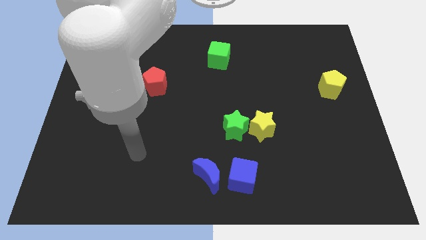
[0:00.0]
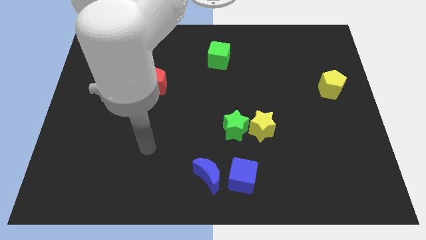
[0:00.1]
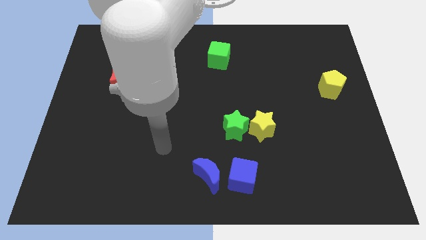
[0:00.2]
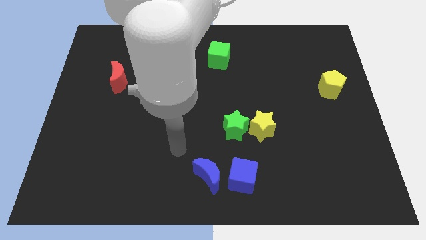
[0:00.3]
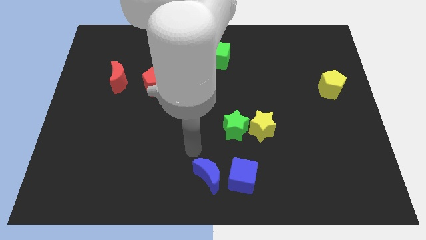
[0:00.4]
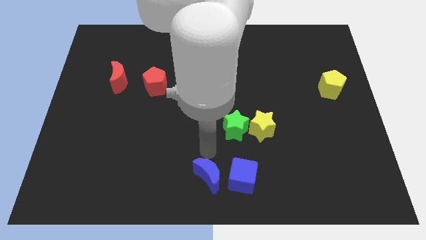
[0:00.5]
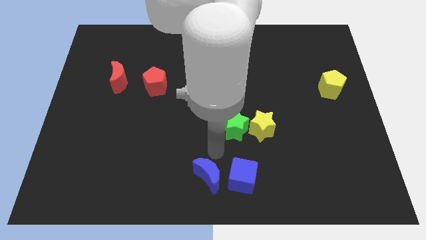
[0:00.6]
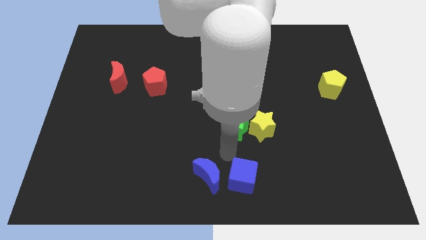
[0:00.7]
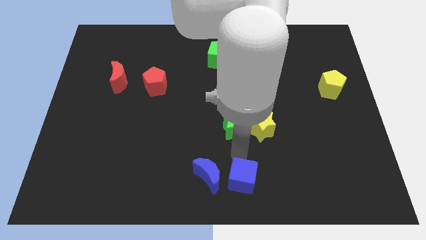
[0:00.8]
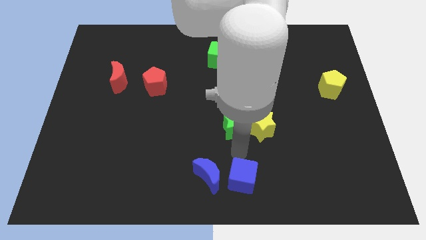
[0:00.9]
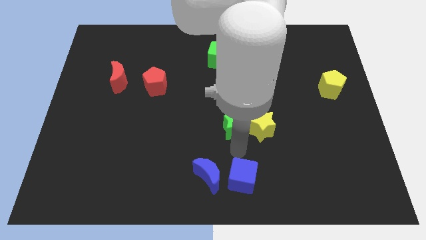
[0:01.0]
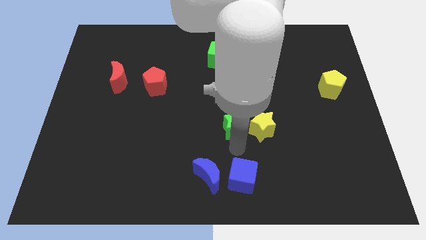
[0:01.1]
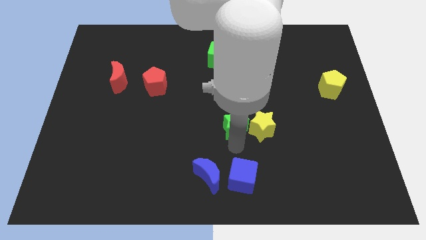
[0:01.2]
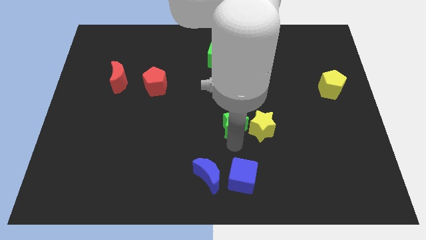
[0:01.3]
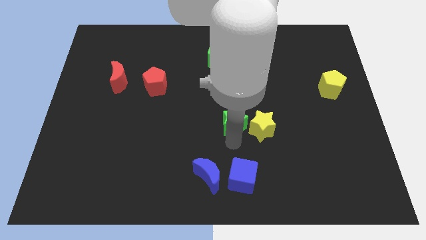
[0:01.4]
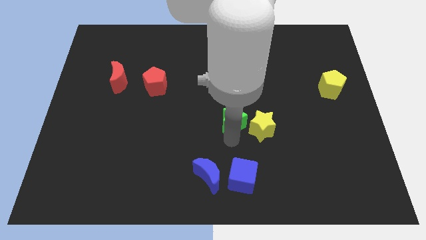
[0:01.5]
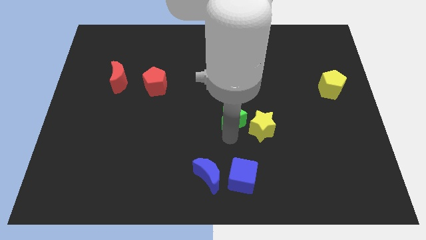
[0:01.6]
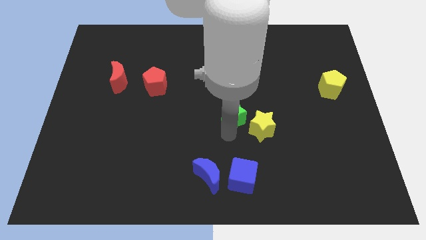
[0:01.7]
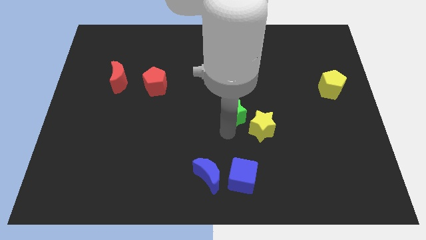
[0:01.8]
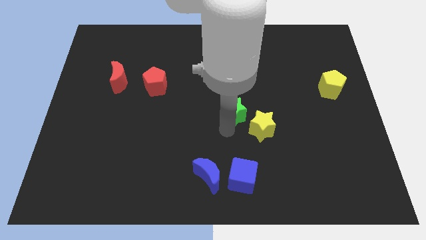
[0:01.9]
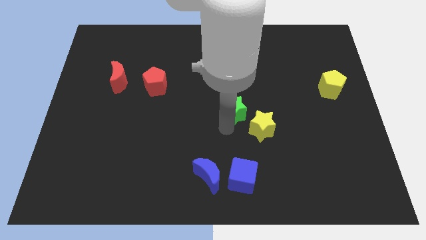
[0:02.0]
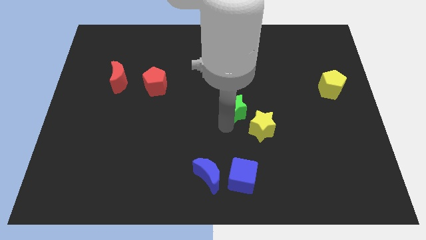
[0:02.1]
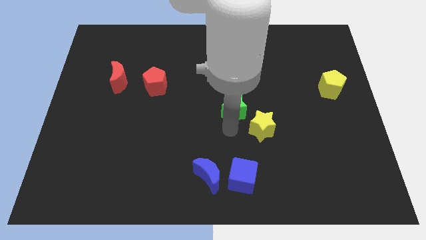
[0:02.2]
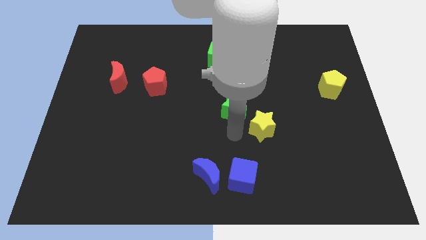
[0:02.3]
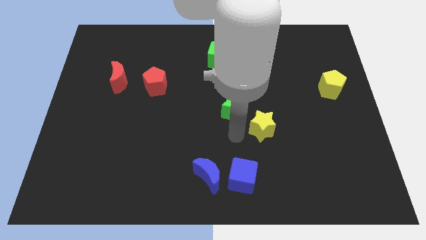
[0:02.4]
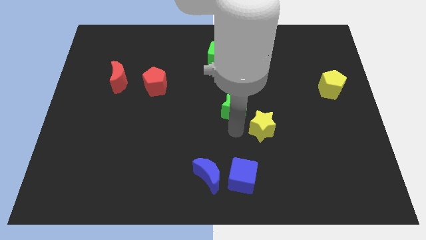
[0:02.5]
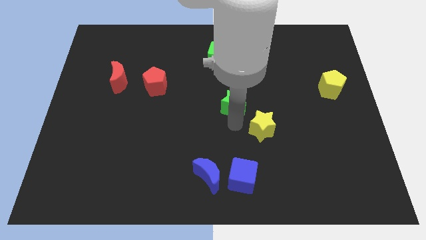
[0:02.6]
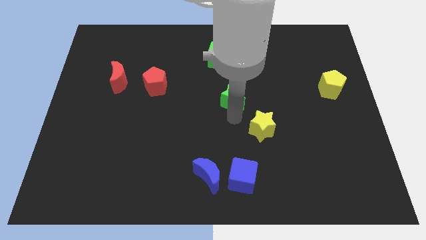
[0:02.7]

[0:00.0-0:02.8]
move the green star up a little

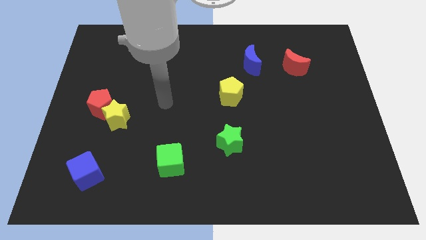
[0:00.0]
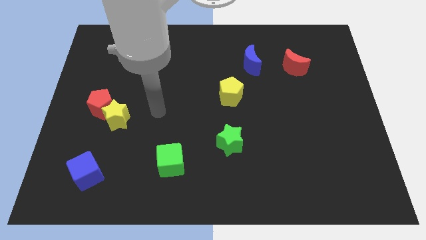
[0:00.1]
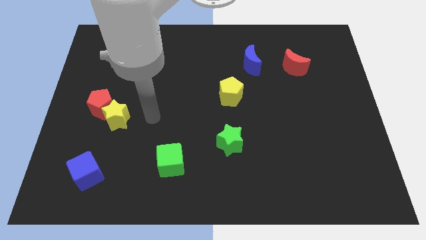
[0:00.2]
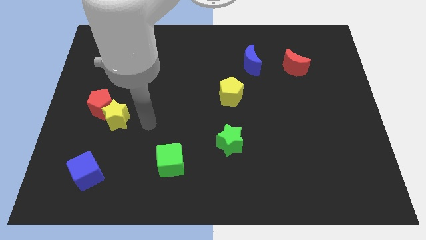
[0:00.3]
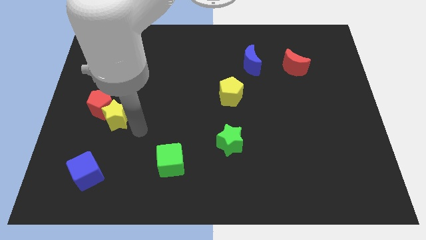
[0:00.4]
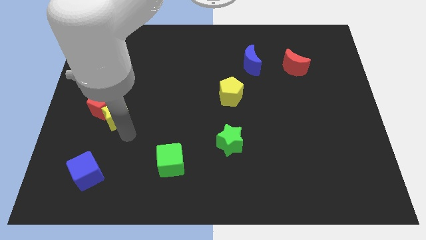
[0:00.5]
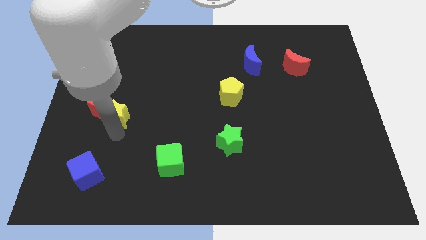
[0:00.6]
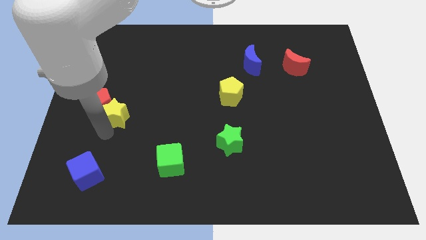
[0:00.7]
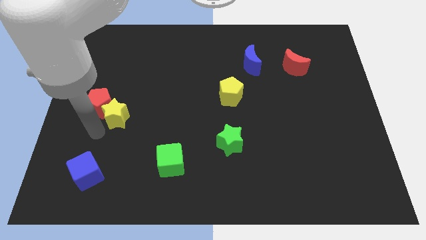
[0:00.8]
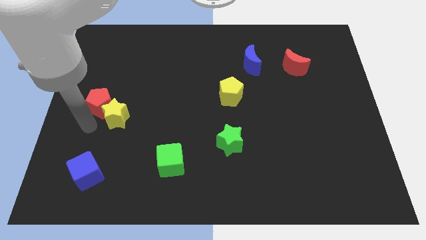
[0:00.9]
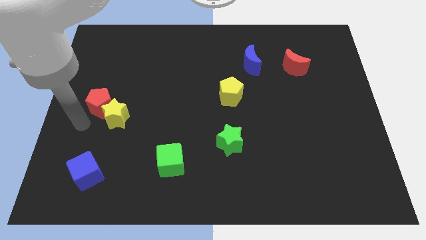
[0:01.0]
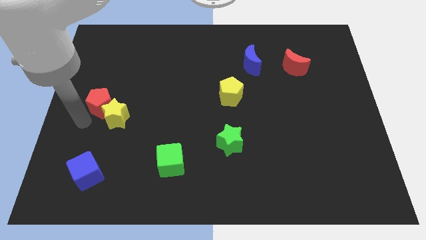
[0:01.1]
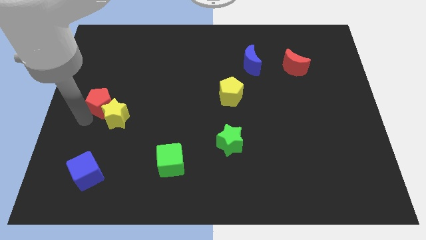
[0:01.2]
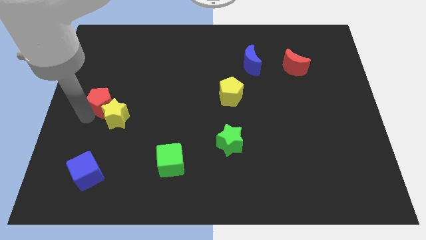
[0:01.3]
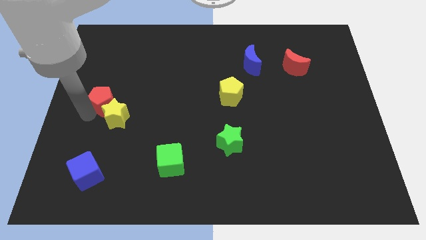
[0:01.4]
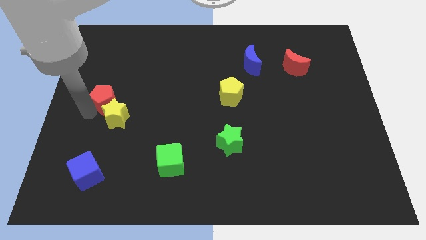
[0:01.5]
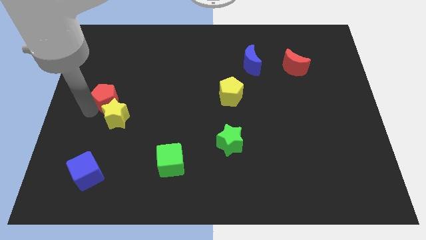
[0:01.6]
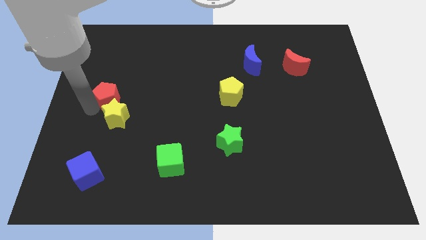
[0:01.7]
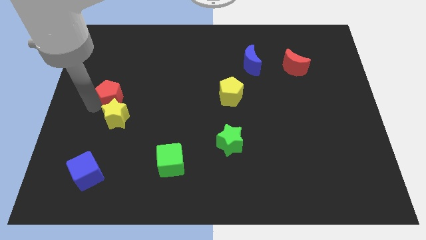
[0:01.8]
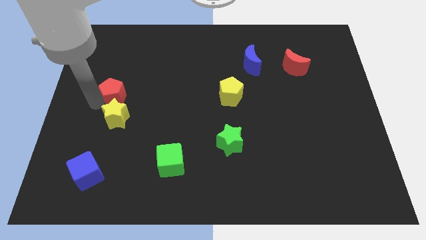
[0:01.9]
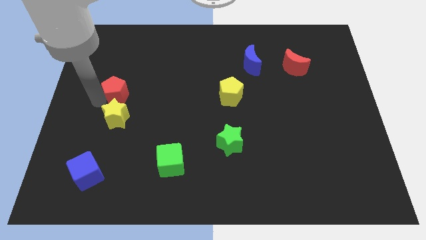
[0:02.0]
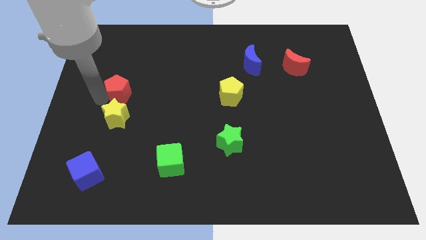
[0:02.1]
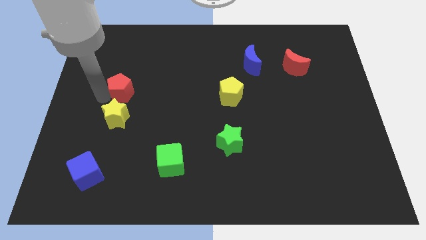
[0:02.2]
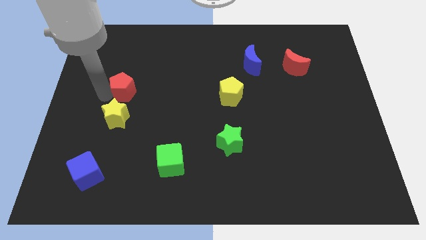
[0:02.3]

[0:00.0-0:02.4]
slightly move the red pentagon upwards and then right

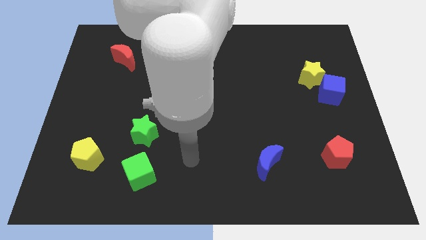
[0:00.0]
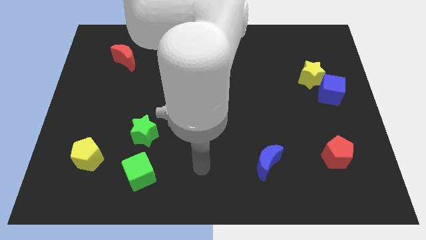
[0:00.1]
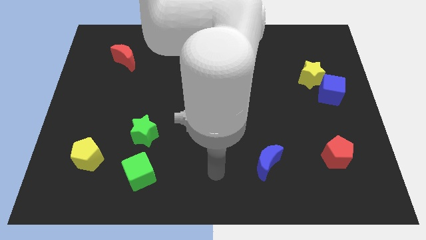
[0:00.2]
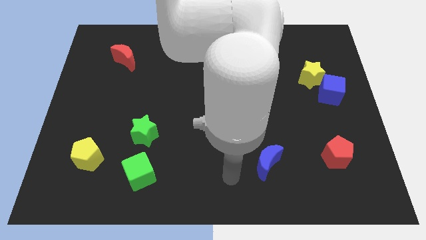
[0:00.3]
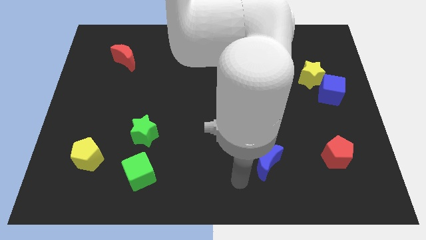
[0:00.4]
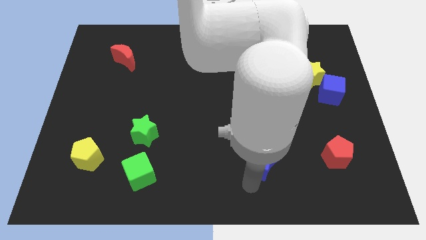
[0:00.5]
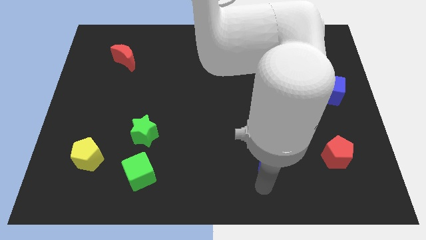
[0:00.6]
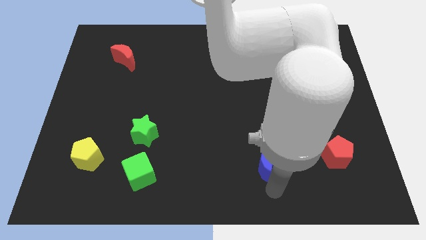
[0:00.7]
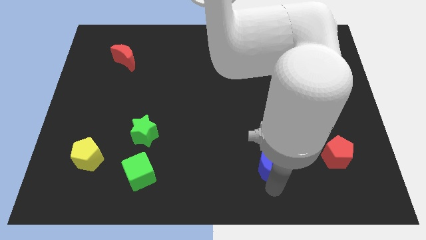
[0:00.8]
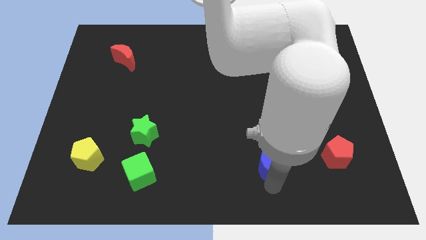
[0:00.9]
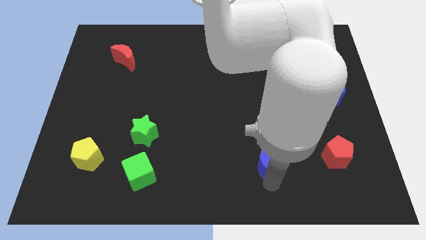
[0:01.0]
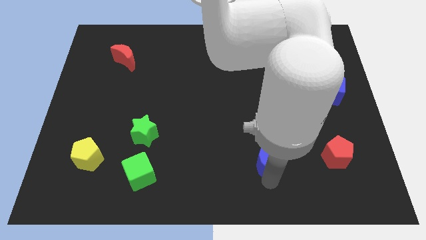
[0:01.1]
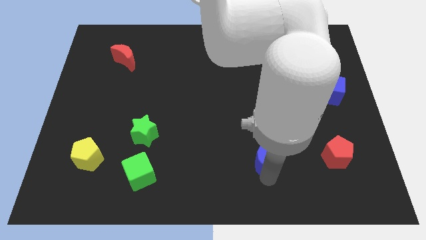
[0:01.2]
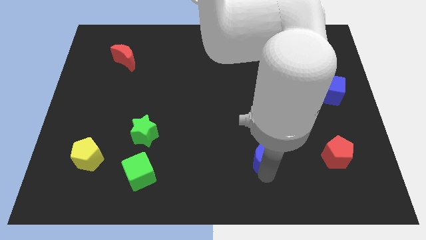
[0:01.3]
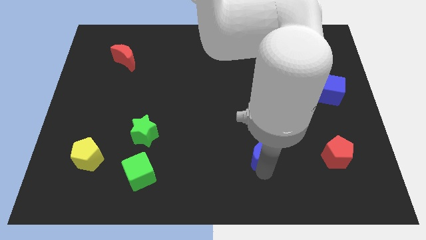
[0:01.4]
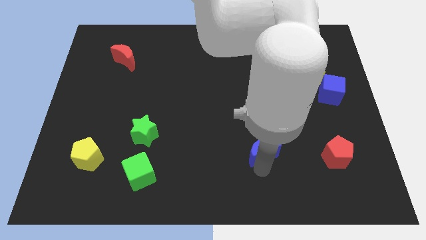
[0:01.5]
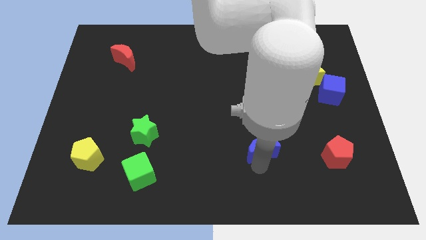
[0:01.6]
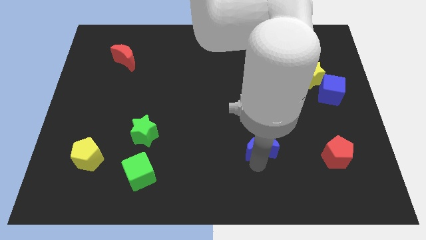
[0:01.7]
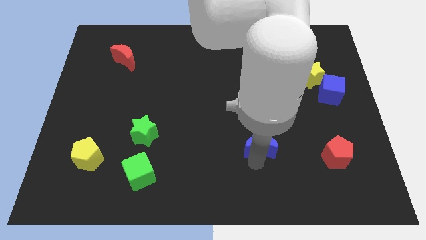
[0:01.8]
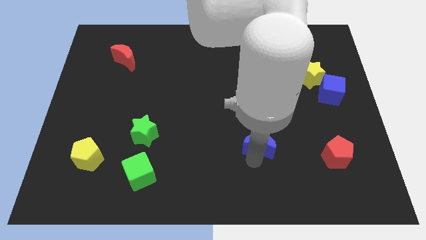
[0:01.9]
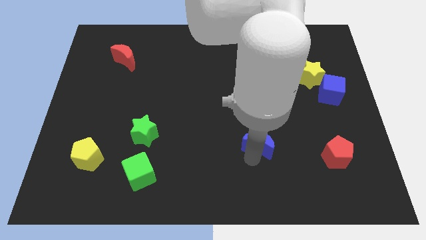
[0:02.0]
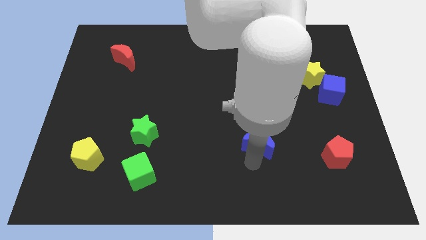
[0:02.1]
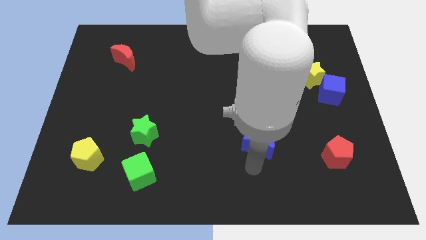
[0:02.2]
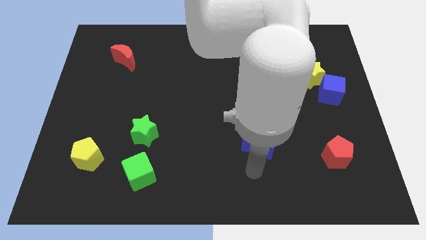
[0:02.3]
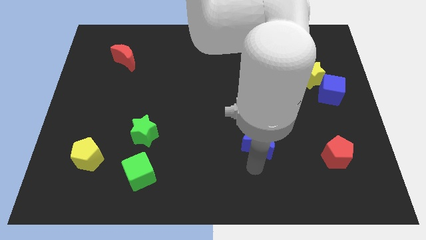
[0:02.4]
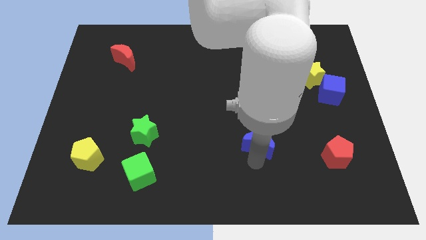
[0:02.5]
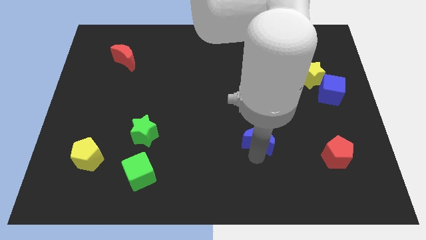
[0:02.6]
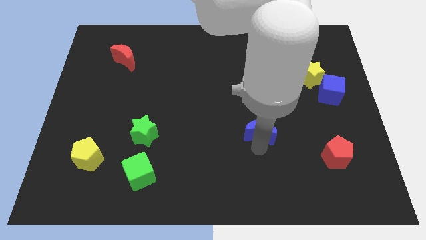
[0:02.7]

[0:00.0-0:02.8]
move the blue moon somewhat up
